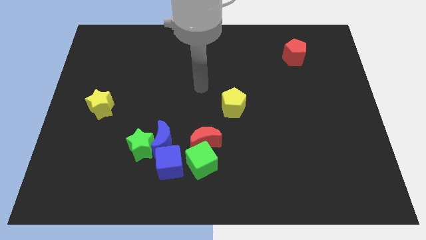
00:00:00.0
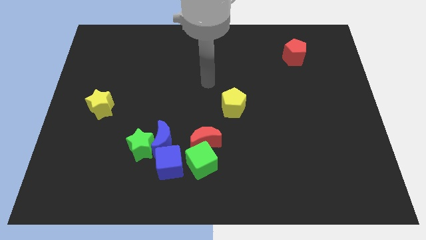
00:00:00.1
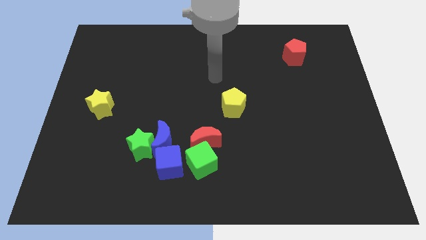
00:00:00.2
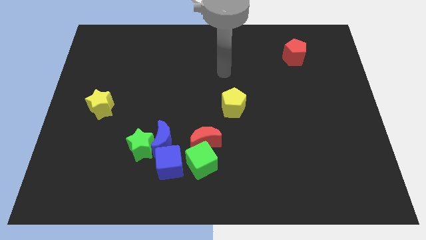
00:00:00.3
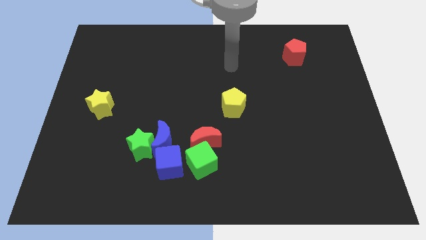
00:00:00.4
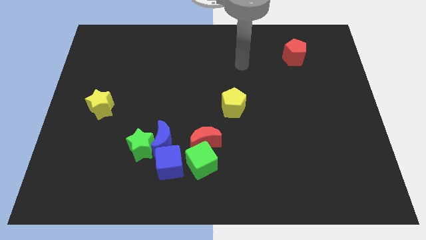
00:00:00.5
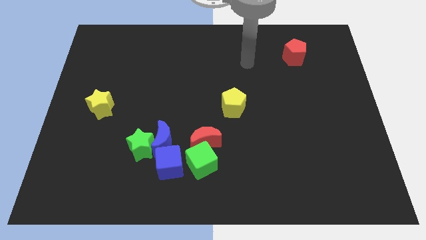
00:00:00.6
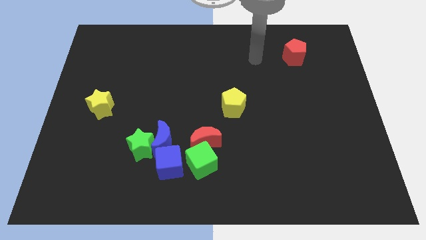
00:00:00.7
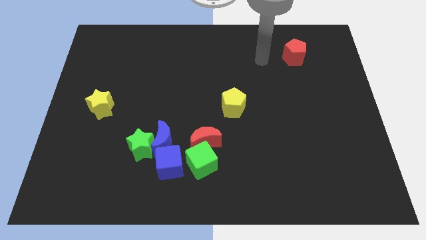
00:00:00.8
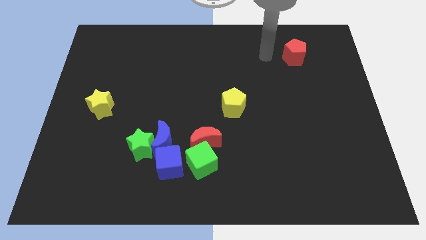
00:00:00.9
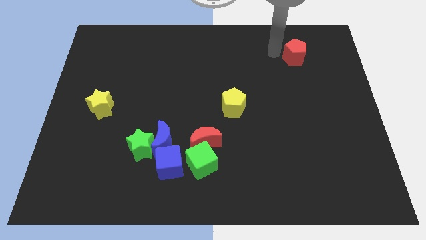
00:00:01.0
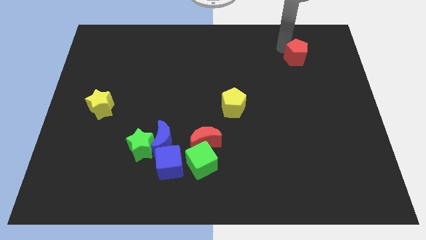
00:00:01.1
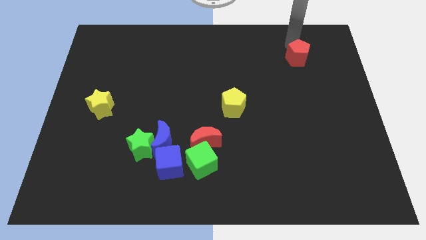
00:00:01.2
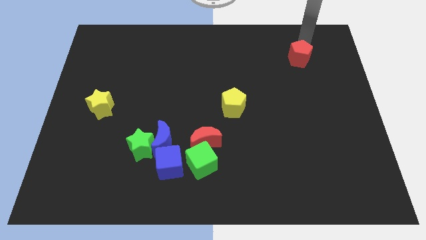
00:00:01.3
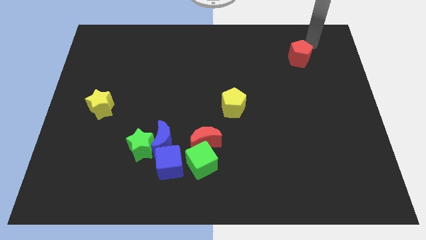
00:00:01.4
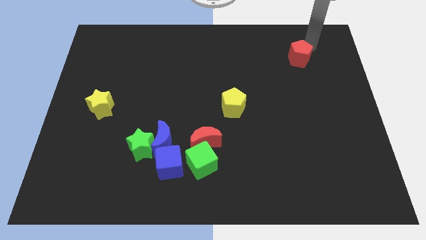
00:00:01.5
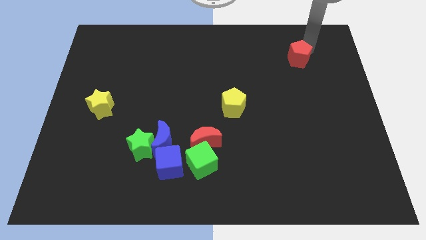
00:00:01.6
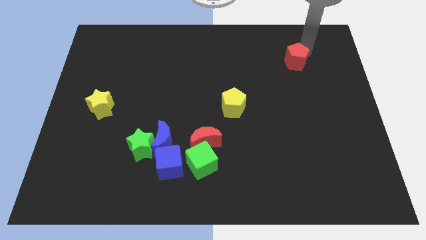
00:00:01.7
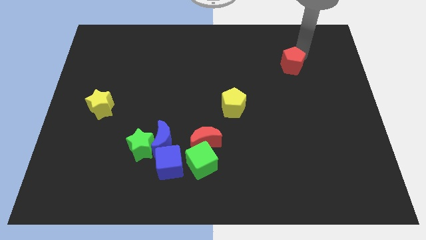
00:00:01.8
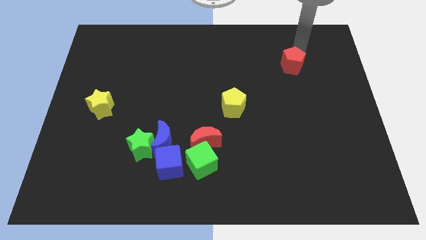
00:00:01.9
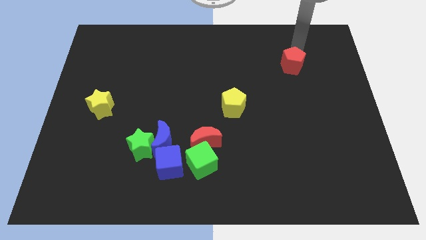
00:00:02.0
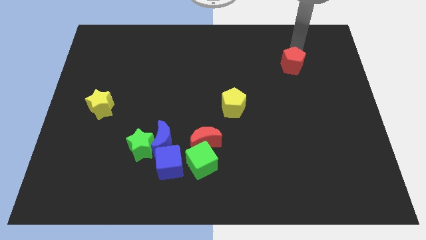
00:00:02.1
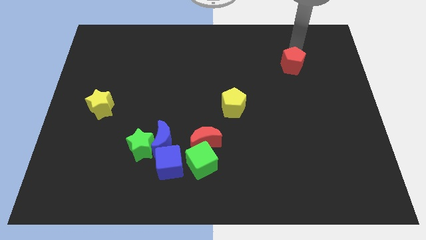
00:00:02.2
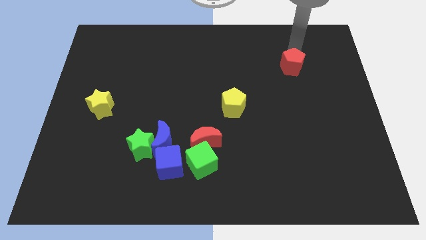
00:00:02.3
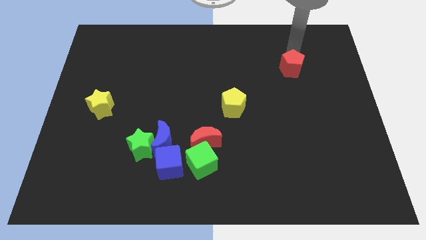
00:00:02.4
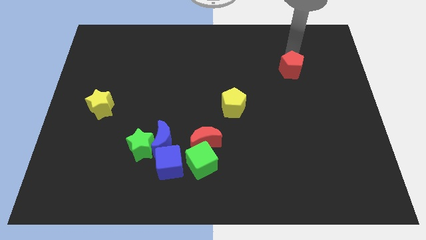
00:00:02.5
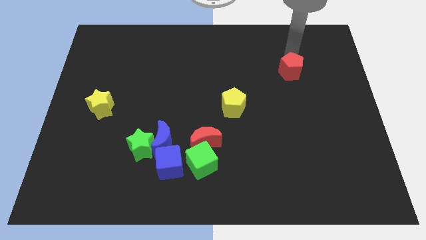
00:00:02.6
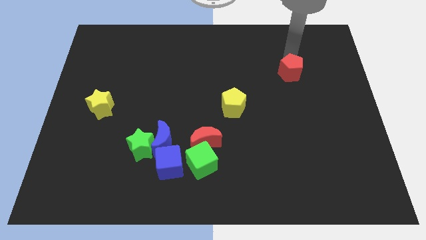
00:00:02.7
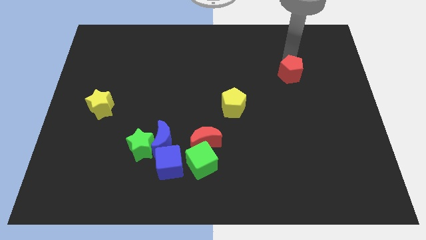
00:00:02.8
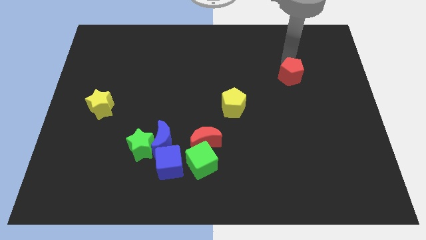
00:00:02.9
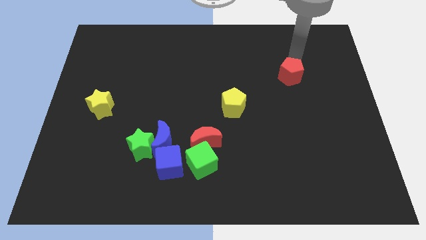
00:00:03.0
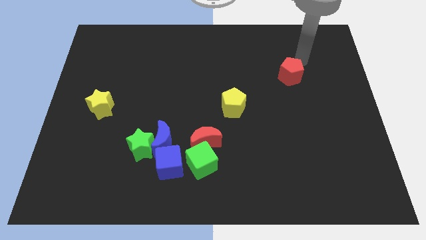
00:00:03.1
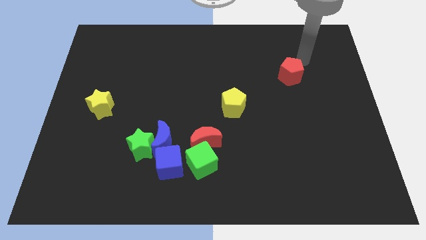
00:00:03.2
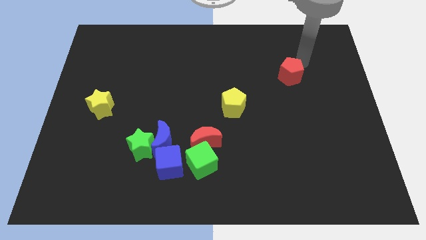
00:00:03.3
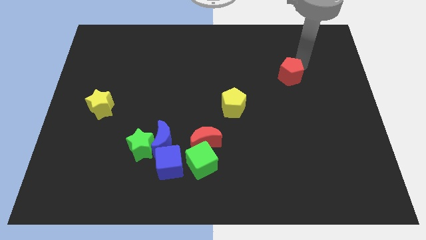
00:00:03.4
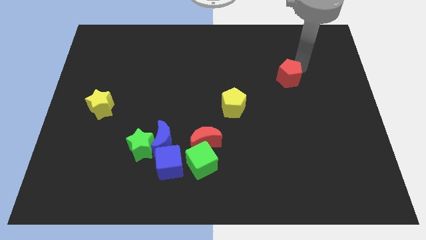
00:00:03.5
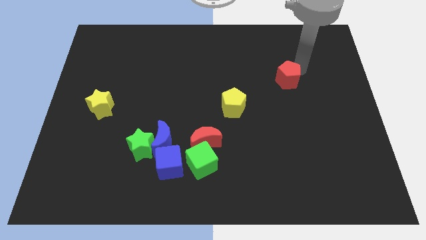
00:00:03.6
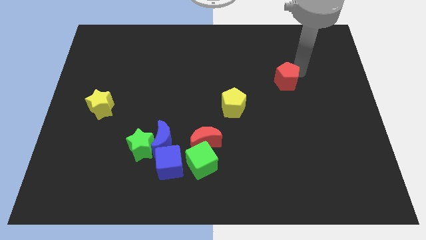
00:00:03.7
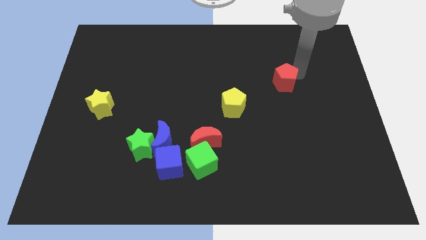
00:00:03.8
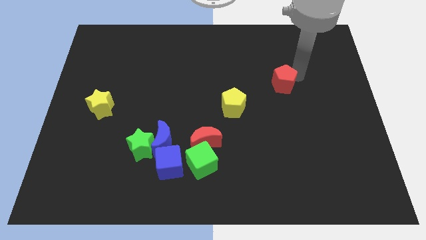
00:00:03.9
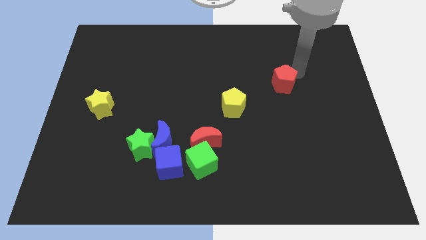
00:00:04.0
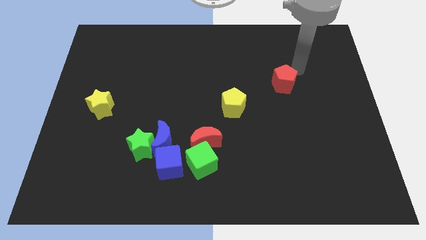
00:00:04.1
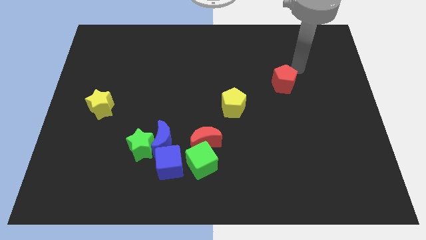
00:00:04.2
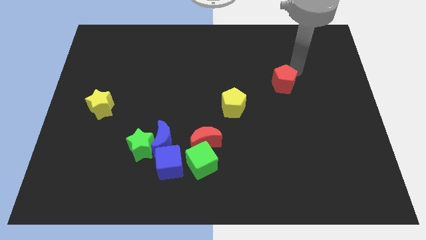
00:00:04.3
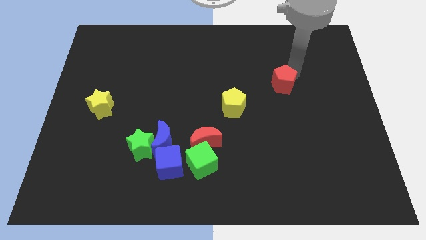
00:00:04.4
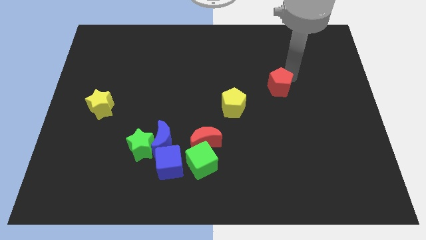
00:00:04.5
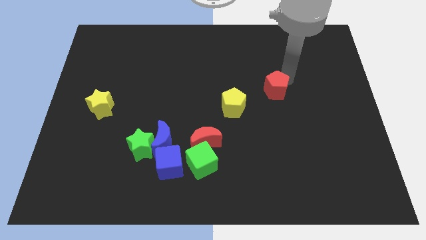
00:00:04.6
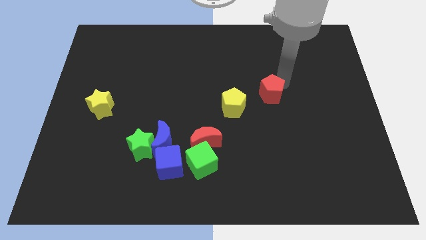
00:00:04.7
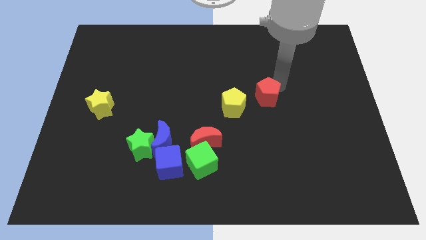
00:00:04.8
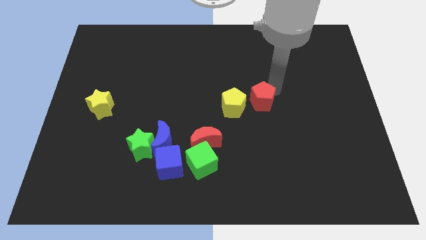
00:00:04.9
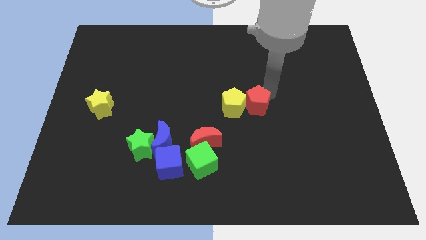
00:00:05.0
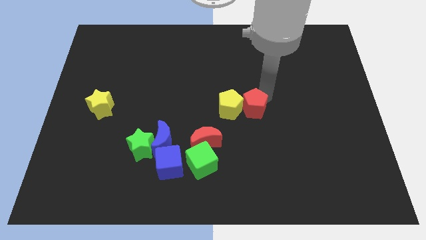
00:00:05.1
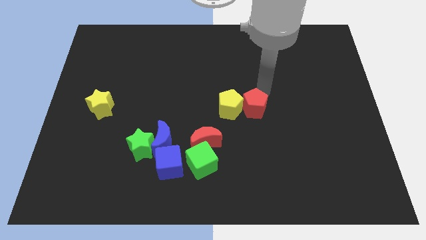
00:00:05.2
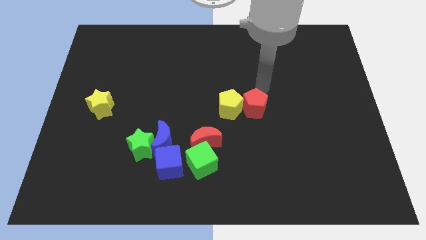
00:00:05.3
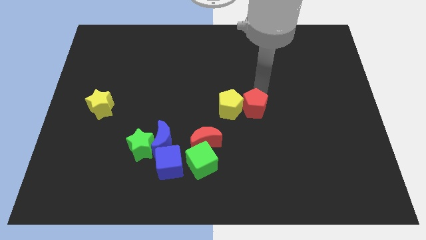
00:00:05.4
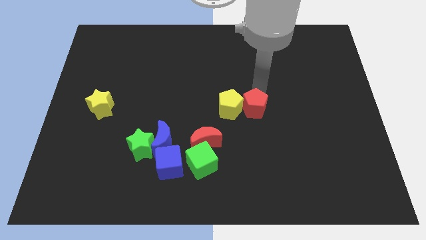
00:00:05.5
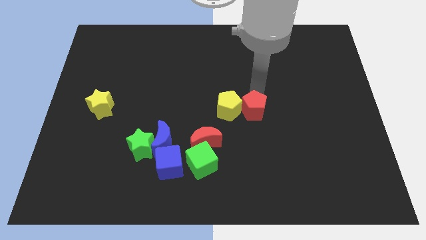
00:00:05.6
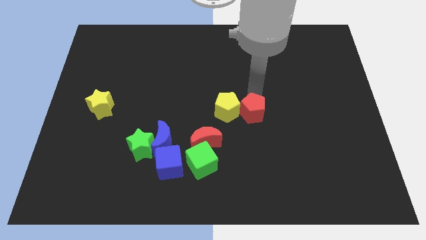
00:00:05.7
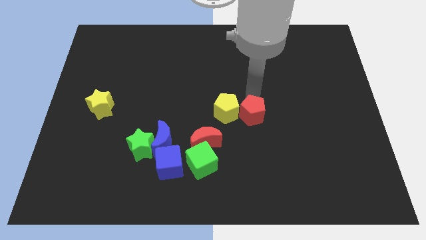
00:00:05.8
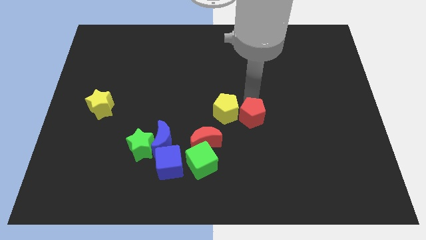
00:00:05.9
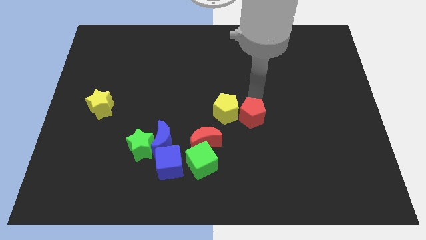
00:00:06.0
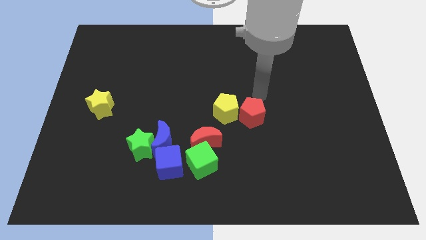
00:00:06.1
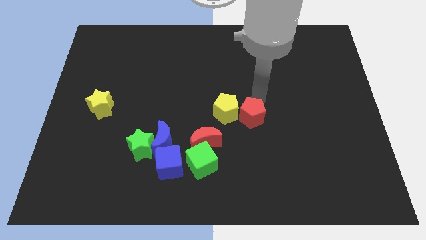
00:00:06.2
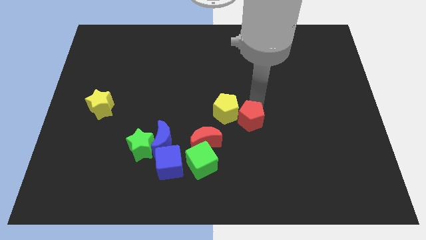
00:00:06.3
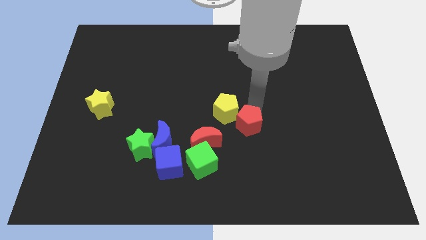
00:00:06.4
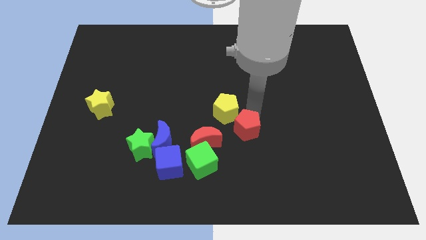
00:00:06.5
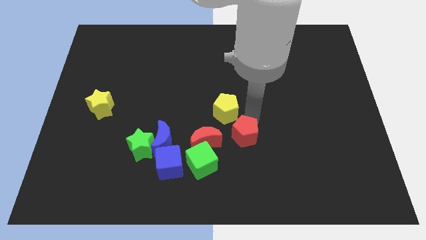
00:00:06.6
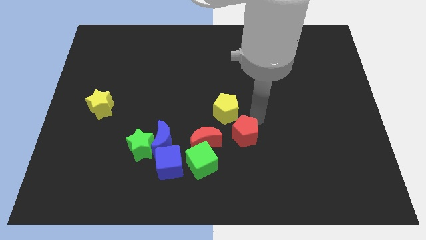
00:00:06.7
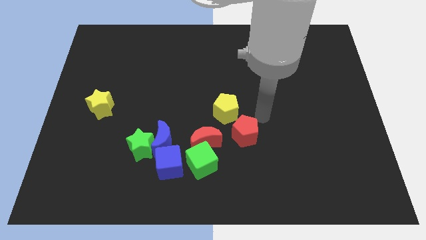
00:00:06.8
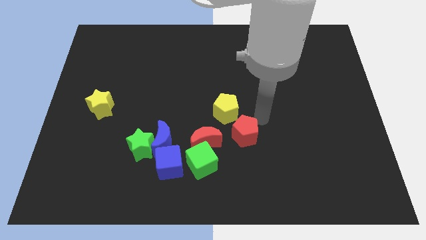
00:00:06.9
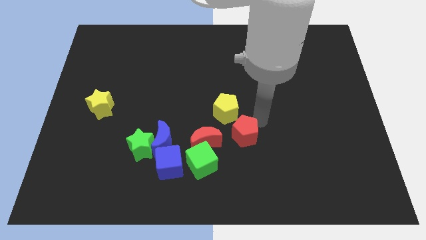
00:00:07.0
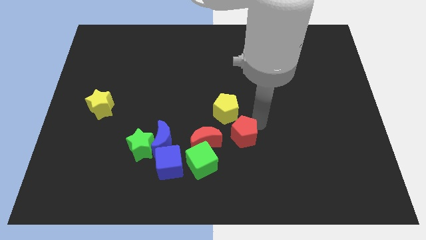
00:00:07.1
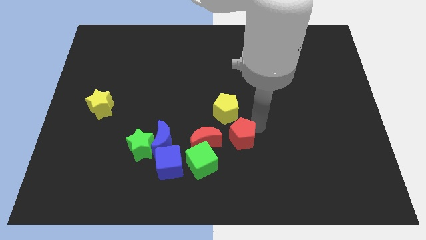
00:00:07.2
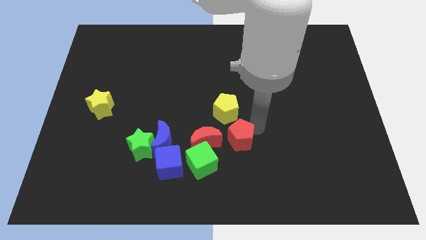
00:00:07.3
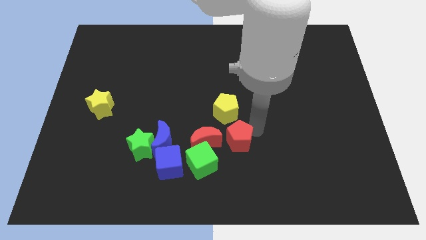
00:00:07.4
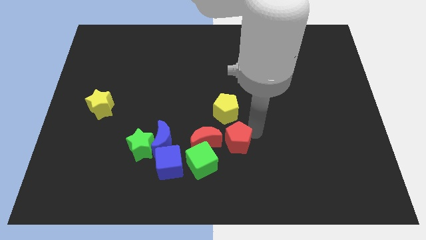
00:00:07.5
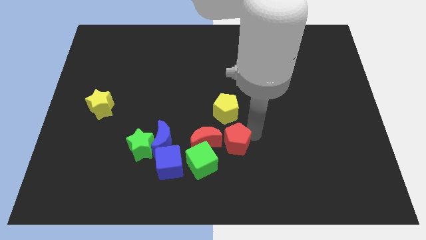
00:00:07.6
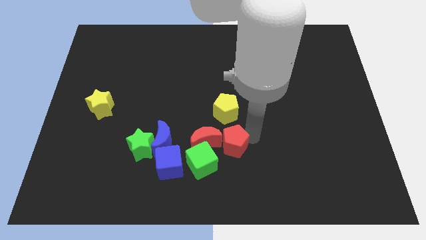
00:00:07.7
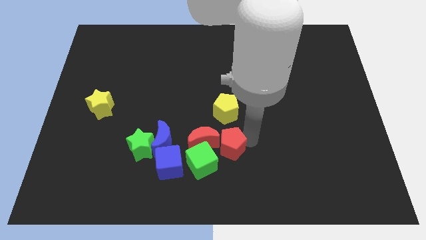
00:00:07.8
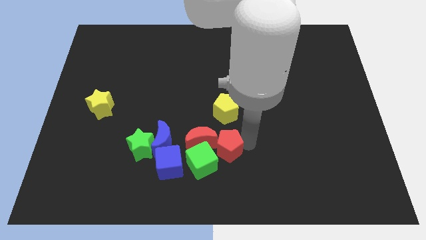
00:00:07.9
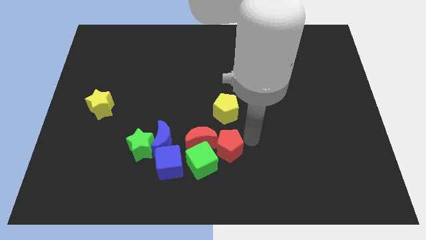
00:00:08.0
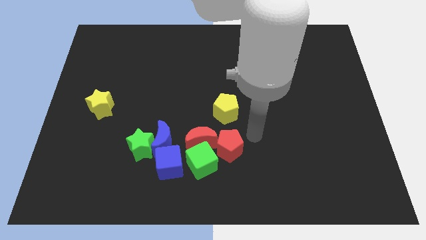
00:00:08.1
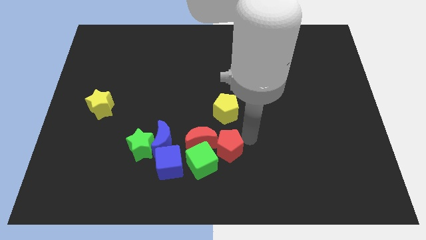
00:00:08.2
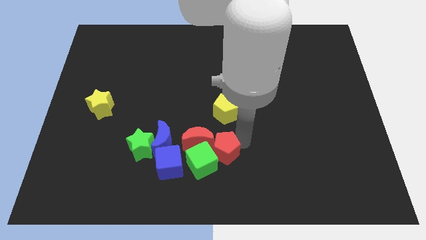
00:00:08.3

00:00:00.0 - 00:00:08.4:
push the red pentagon to the green cube
